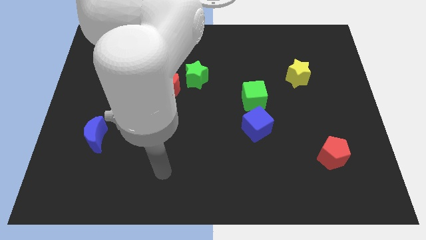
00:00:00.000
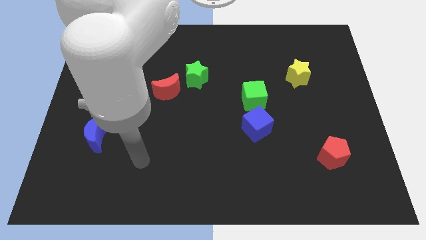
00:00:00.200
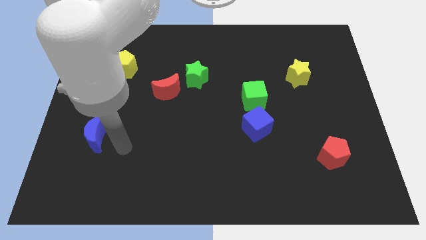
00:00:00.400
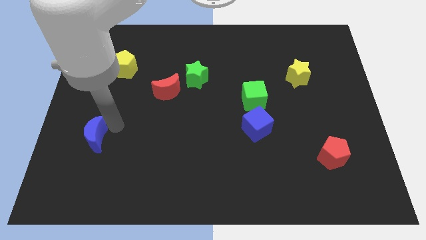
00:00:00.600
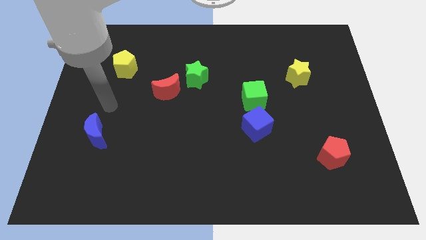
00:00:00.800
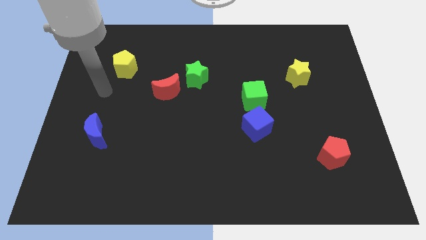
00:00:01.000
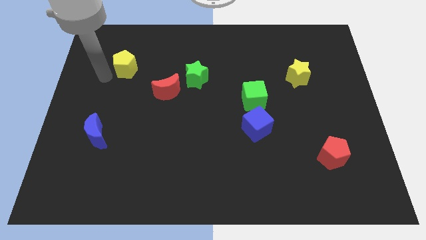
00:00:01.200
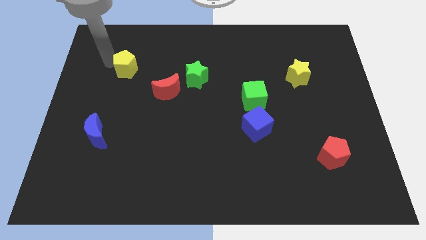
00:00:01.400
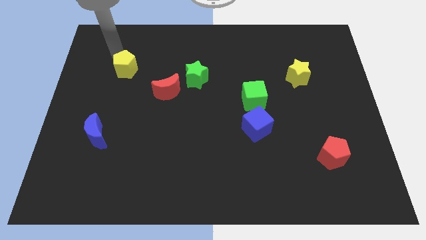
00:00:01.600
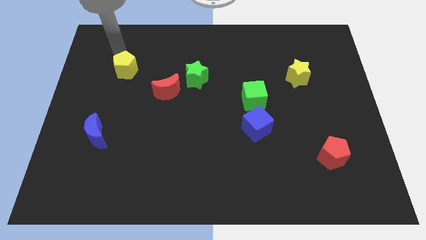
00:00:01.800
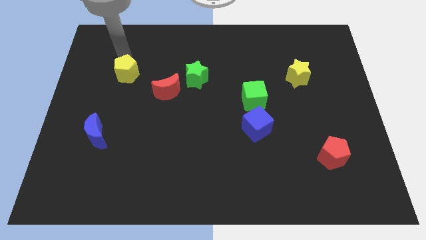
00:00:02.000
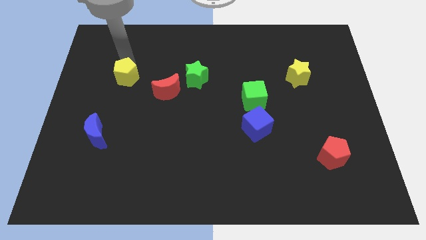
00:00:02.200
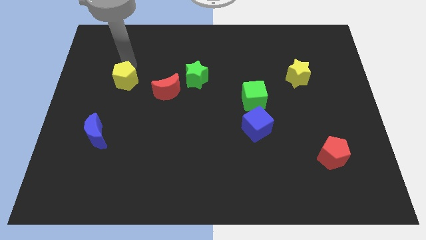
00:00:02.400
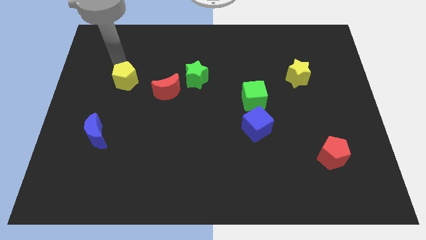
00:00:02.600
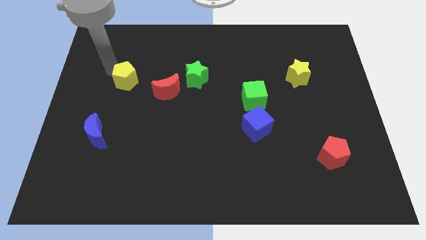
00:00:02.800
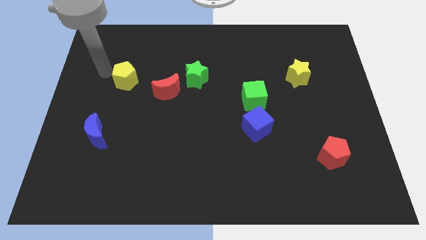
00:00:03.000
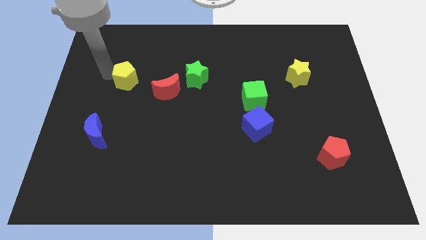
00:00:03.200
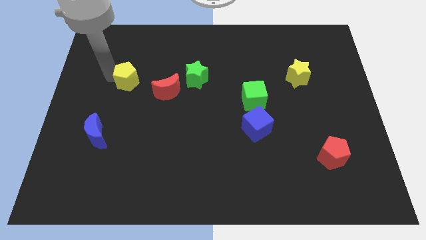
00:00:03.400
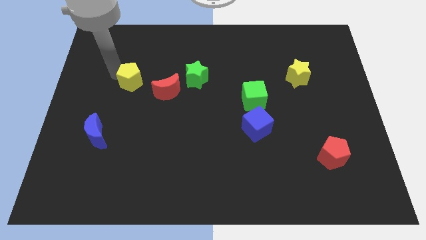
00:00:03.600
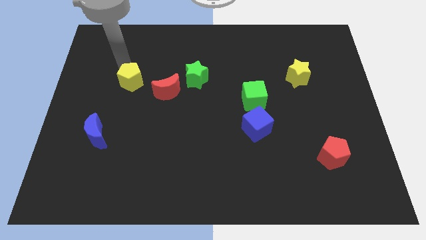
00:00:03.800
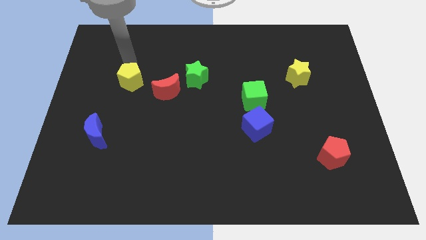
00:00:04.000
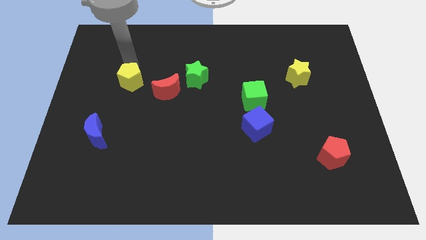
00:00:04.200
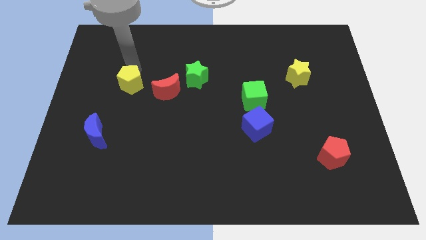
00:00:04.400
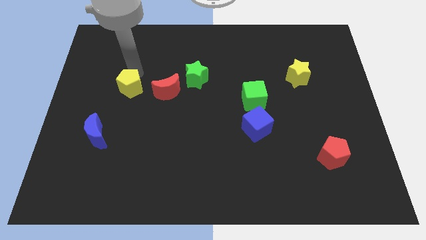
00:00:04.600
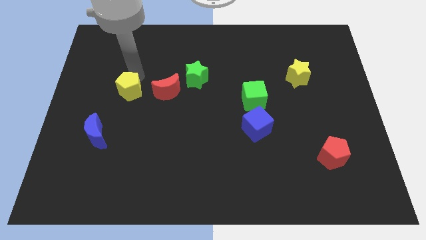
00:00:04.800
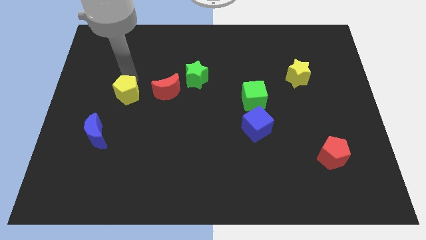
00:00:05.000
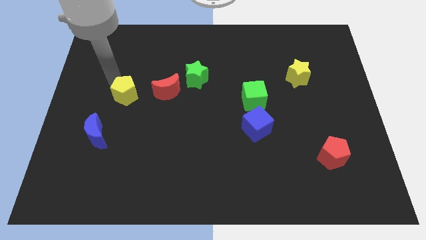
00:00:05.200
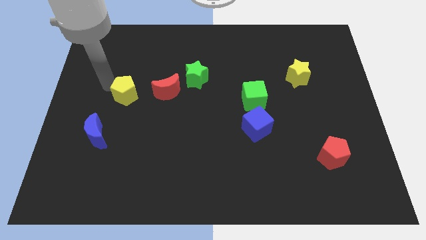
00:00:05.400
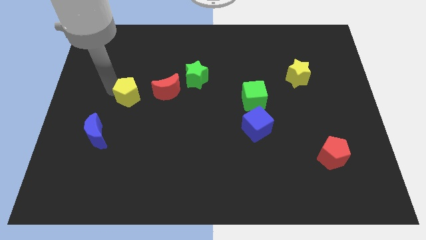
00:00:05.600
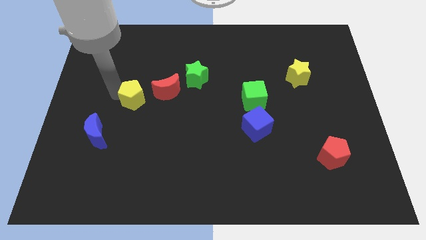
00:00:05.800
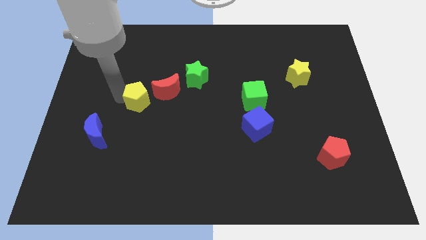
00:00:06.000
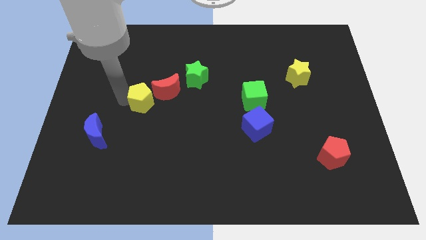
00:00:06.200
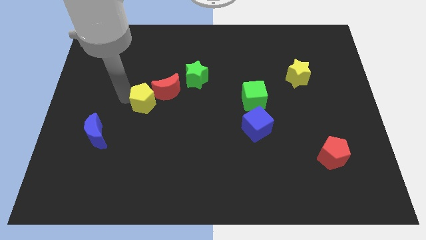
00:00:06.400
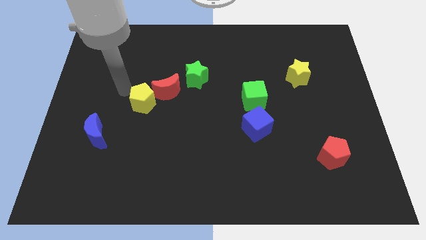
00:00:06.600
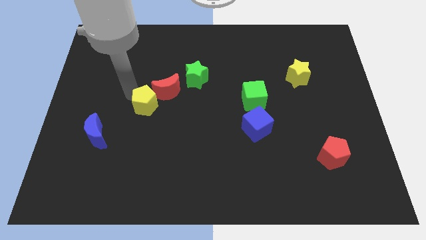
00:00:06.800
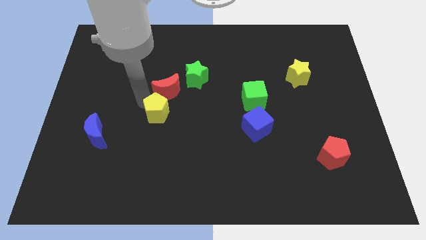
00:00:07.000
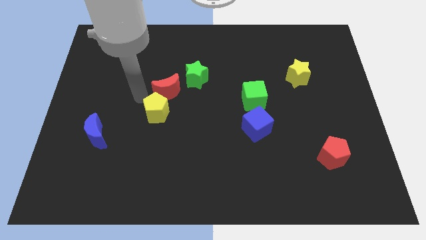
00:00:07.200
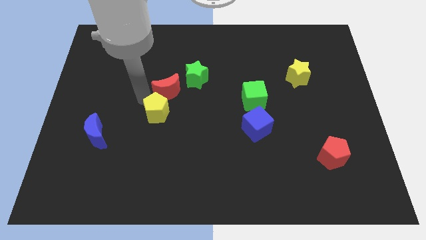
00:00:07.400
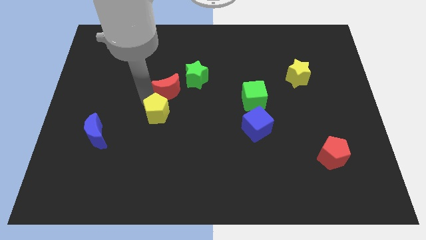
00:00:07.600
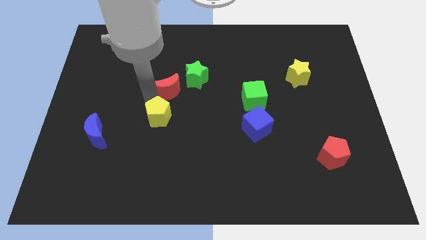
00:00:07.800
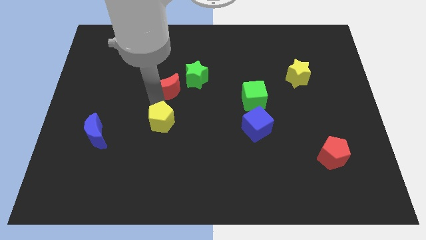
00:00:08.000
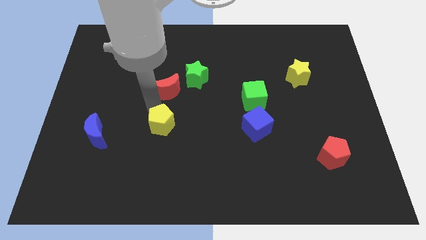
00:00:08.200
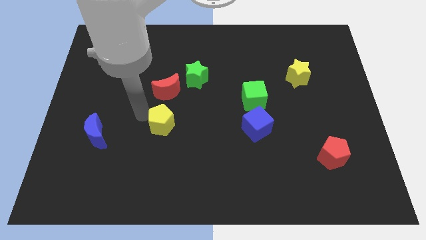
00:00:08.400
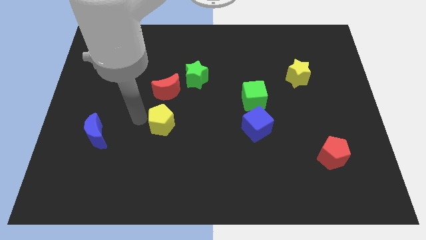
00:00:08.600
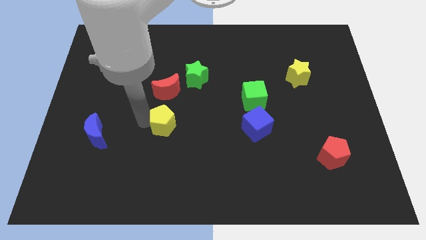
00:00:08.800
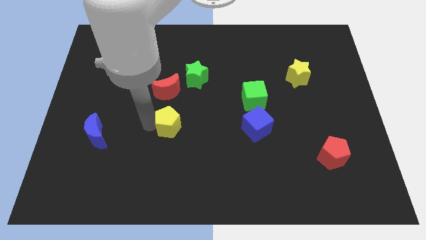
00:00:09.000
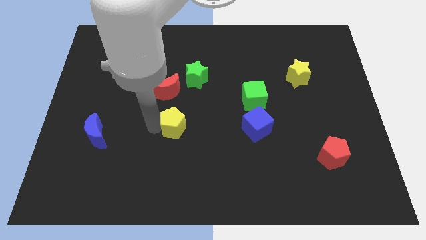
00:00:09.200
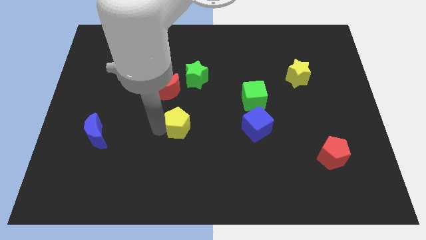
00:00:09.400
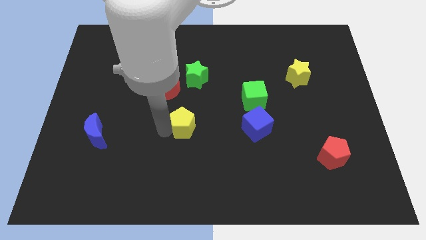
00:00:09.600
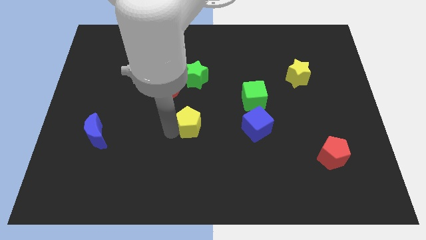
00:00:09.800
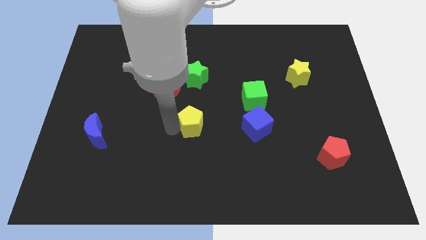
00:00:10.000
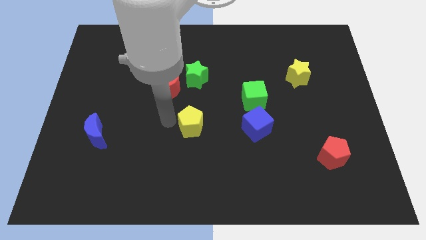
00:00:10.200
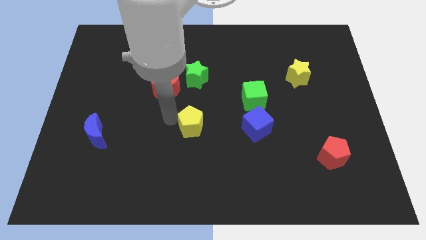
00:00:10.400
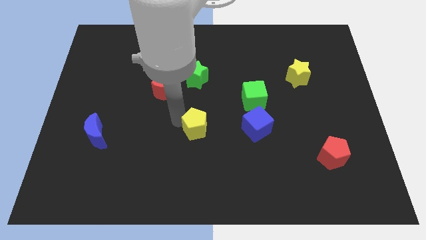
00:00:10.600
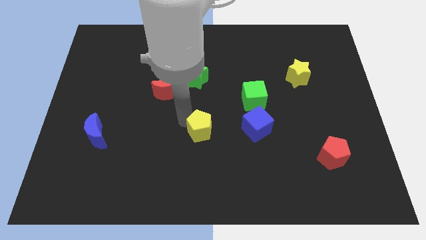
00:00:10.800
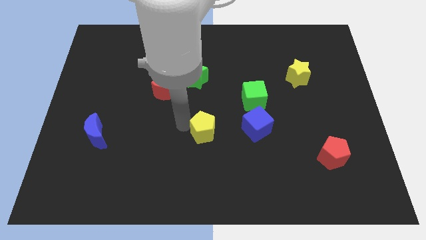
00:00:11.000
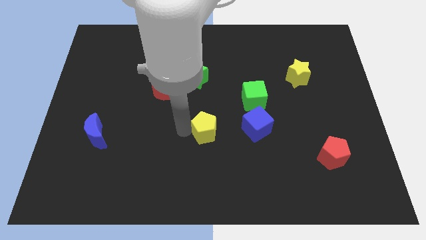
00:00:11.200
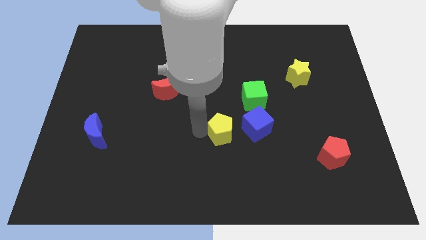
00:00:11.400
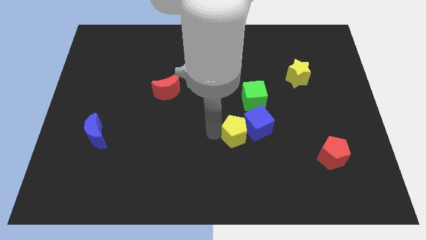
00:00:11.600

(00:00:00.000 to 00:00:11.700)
push the yellow pentagon to the blue cube

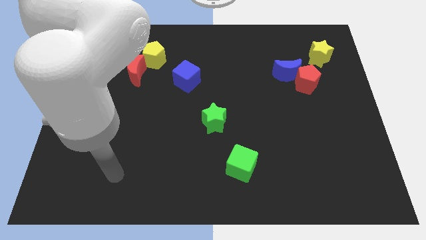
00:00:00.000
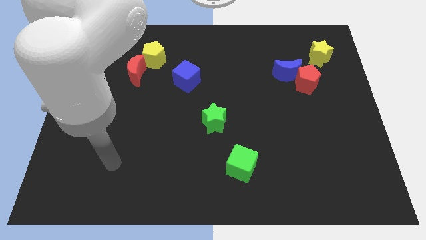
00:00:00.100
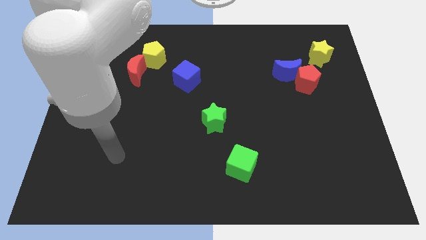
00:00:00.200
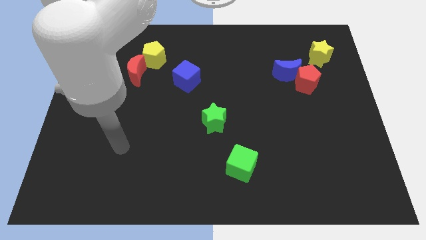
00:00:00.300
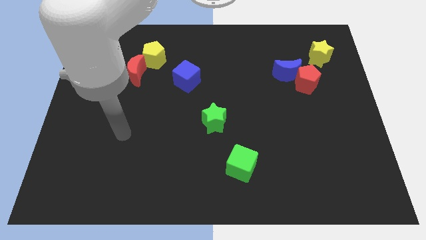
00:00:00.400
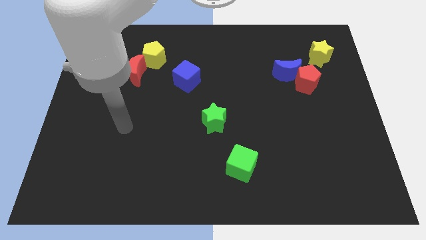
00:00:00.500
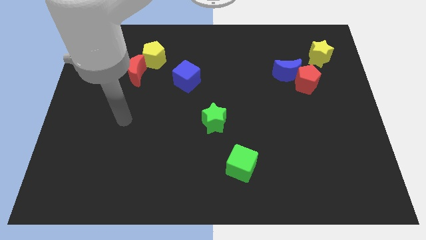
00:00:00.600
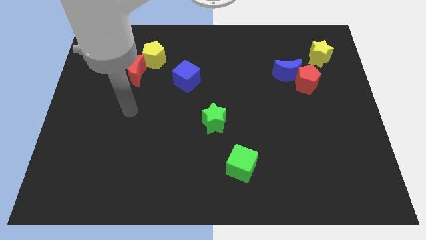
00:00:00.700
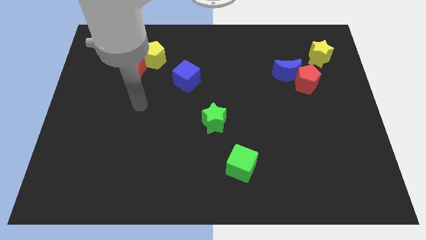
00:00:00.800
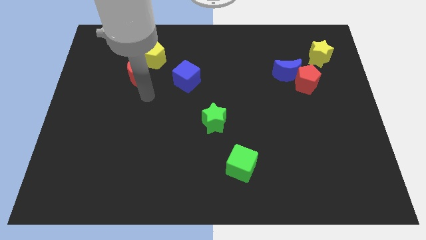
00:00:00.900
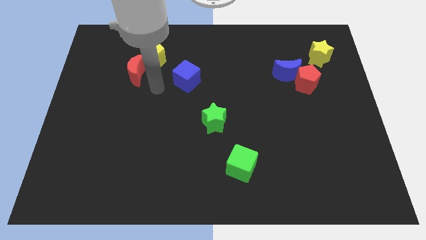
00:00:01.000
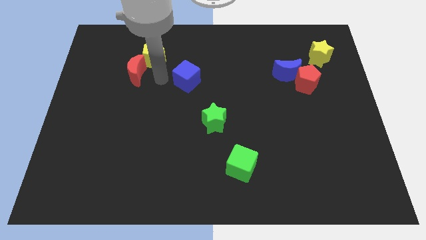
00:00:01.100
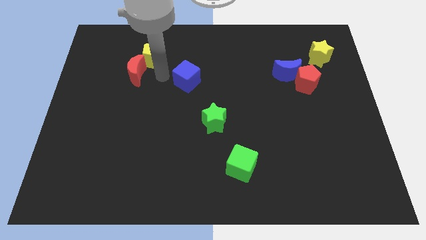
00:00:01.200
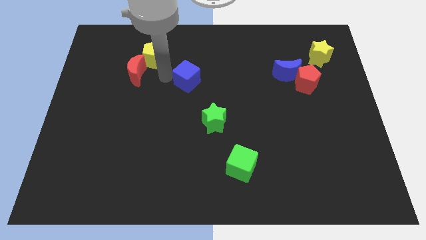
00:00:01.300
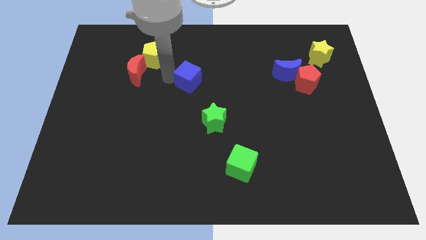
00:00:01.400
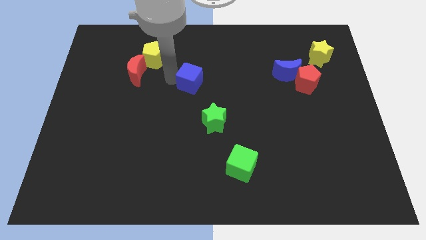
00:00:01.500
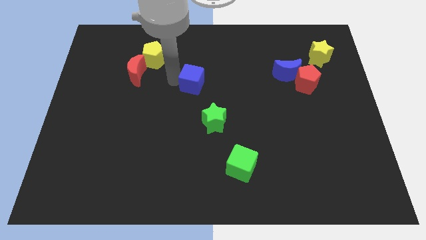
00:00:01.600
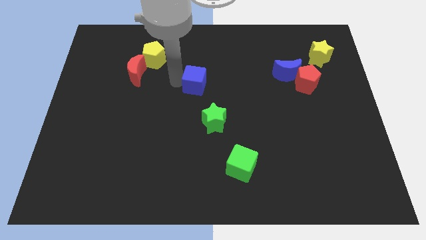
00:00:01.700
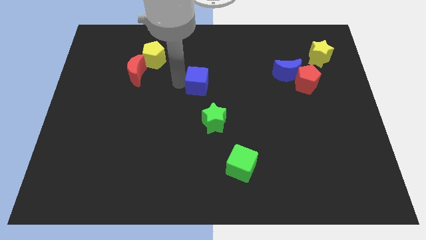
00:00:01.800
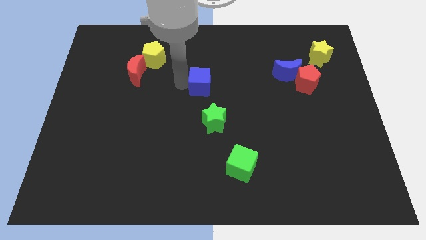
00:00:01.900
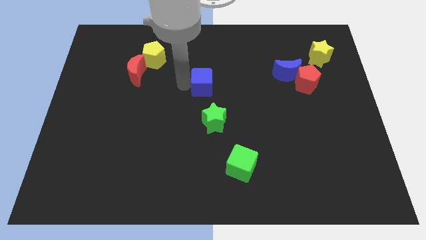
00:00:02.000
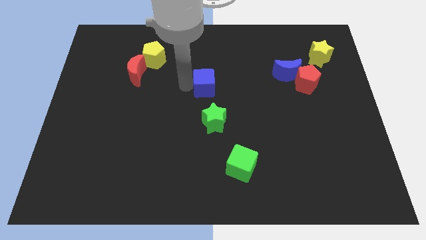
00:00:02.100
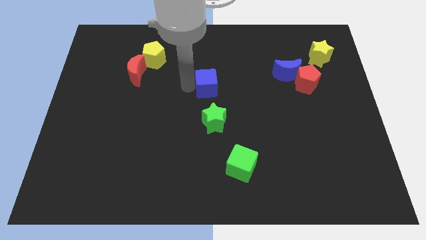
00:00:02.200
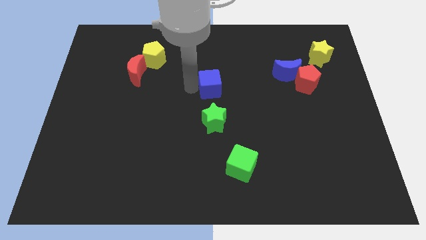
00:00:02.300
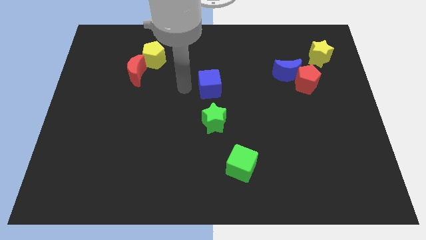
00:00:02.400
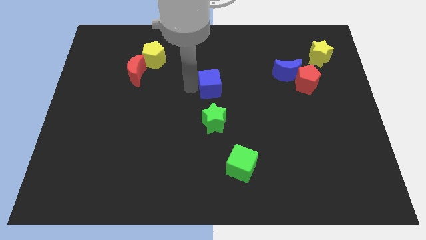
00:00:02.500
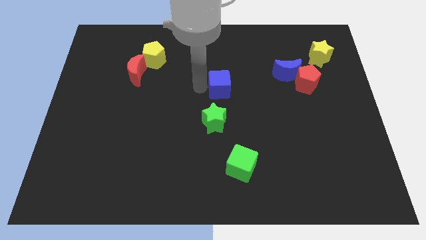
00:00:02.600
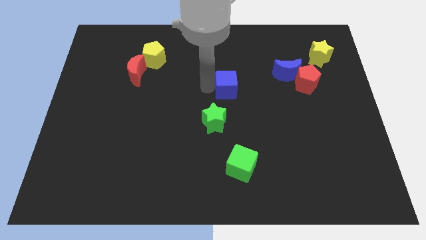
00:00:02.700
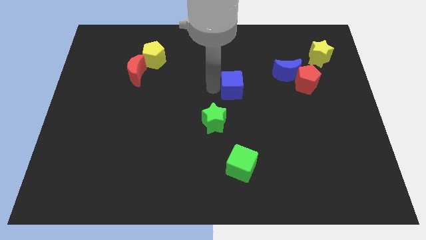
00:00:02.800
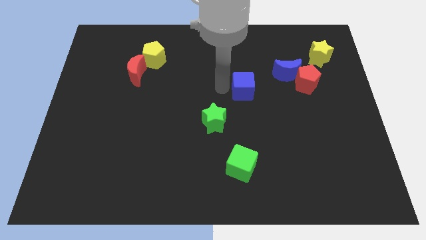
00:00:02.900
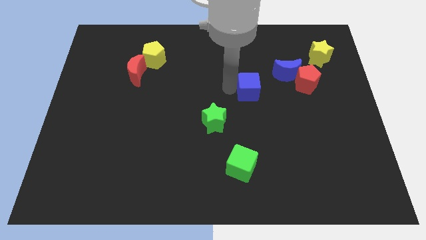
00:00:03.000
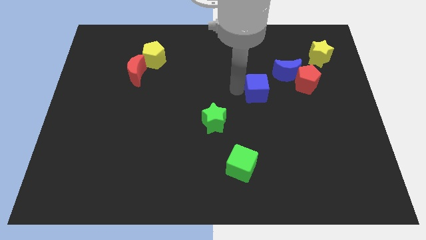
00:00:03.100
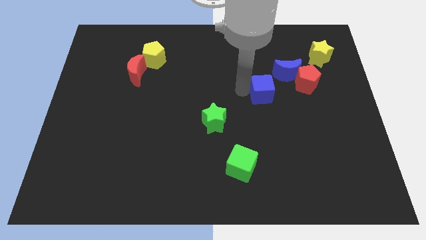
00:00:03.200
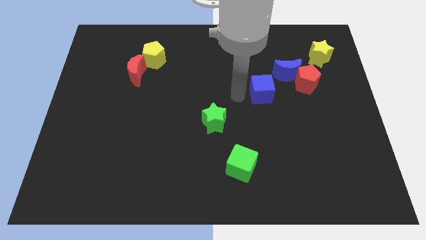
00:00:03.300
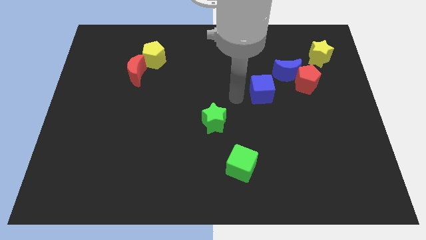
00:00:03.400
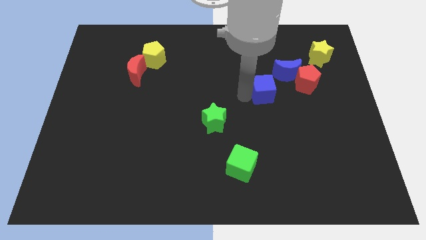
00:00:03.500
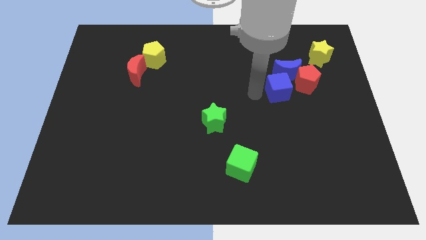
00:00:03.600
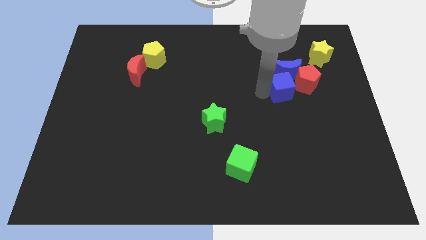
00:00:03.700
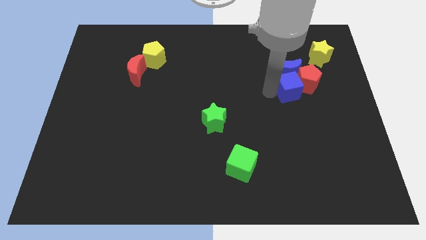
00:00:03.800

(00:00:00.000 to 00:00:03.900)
move the blue cube to the red pentagon
